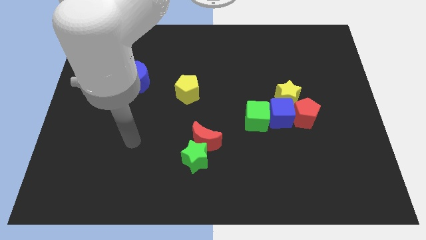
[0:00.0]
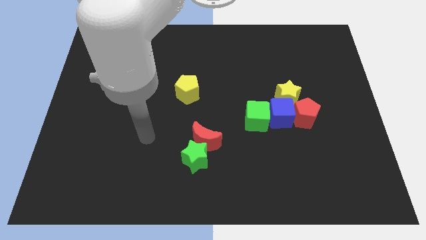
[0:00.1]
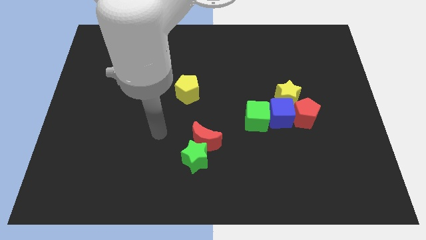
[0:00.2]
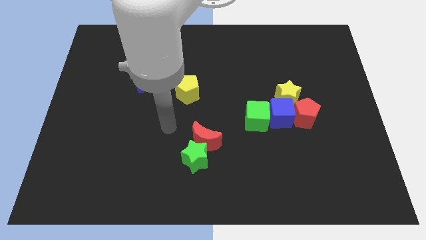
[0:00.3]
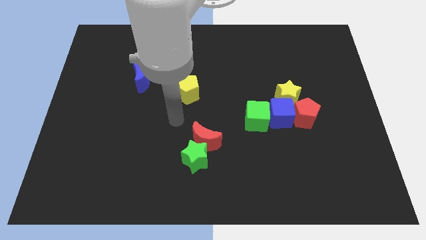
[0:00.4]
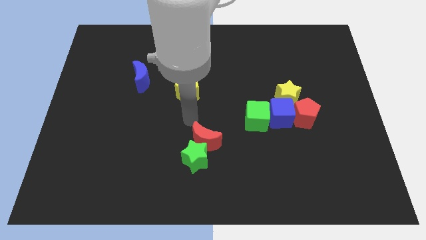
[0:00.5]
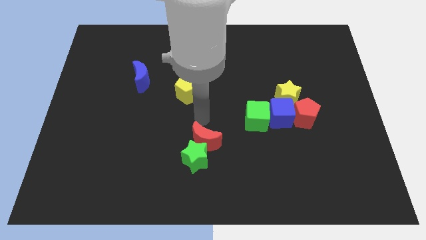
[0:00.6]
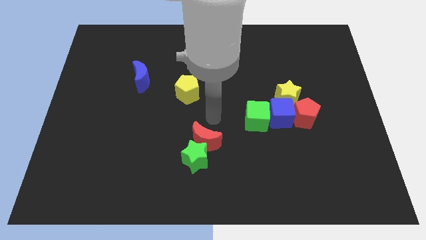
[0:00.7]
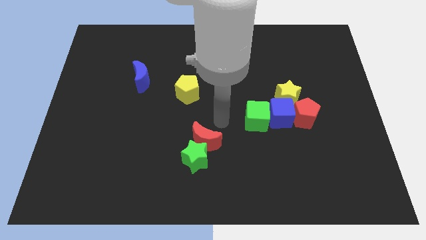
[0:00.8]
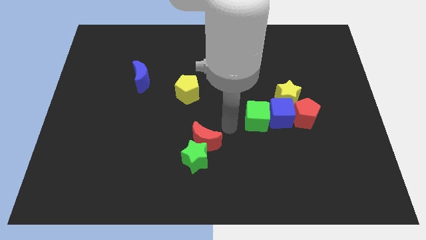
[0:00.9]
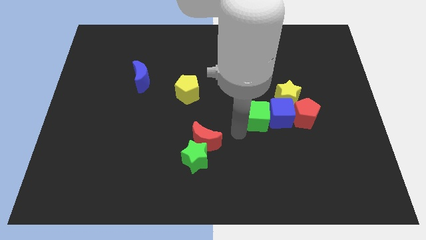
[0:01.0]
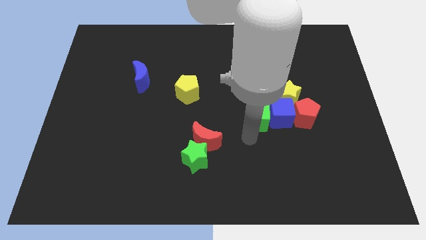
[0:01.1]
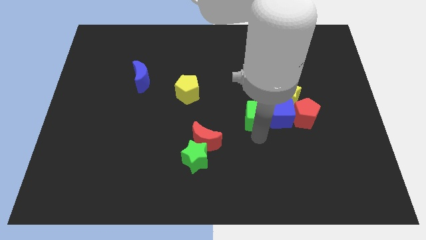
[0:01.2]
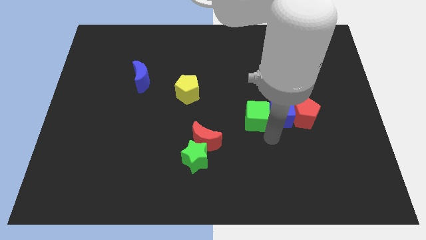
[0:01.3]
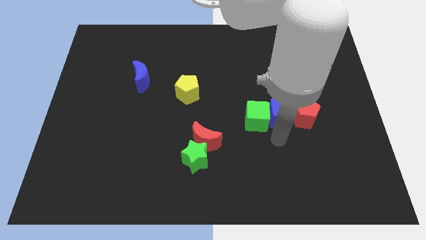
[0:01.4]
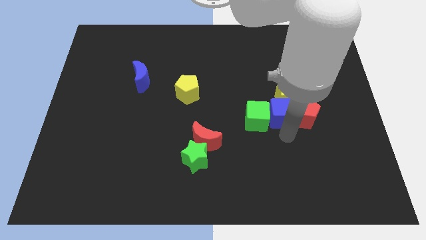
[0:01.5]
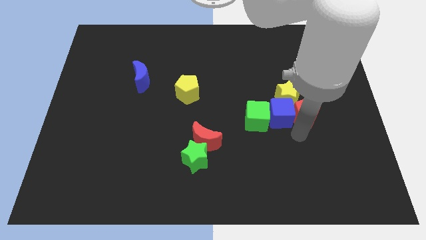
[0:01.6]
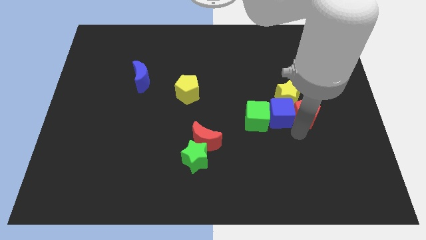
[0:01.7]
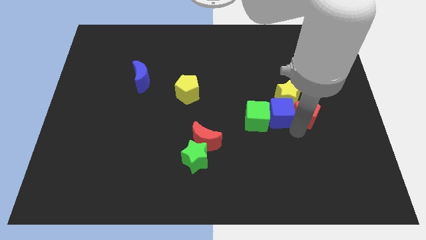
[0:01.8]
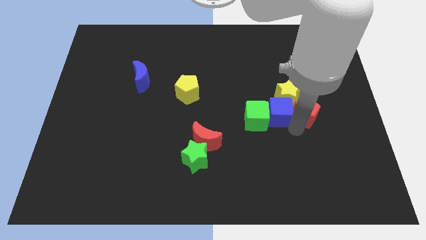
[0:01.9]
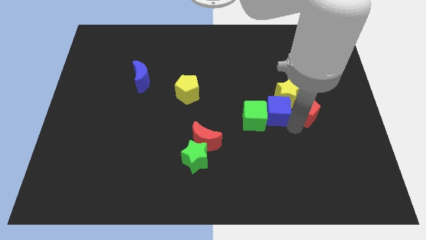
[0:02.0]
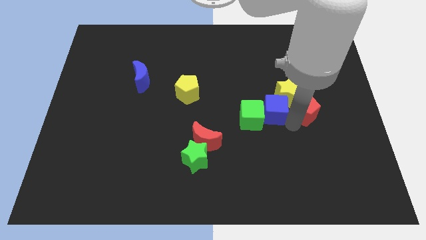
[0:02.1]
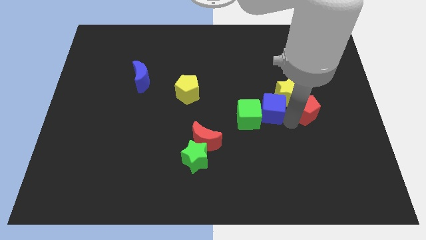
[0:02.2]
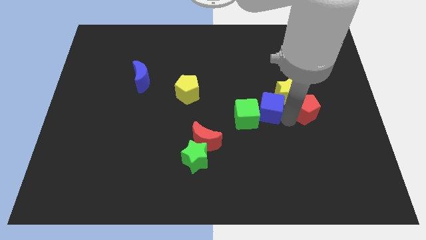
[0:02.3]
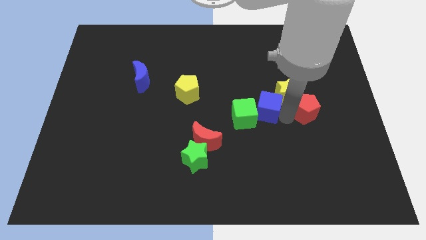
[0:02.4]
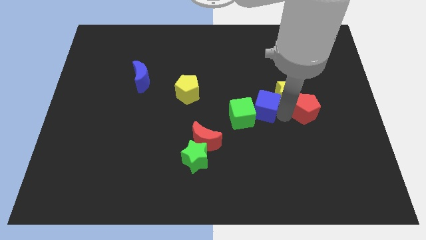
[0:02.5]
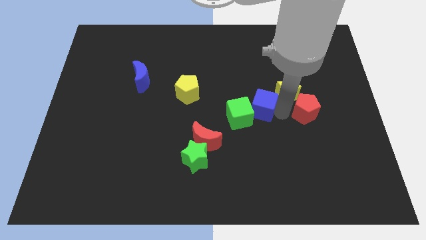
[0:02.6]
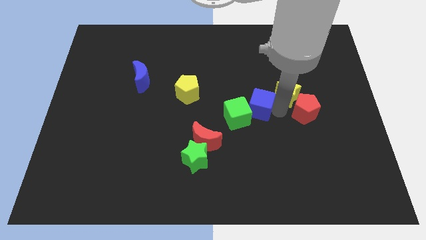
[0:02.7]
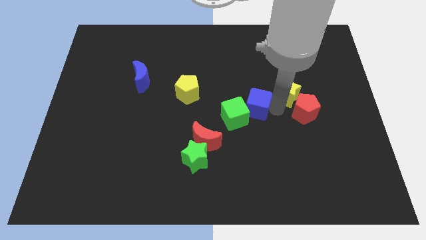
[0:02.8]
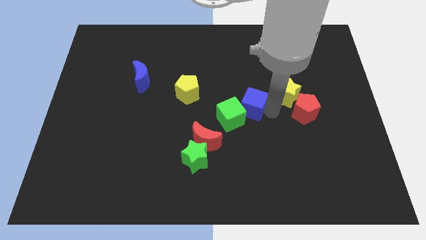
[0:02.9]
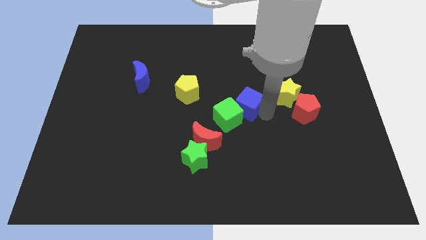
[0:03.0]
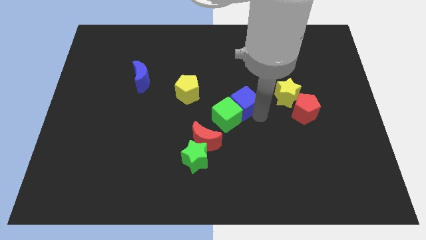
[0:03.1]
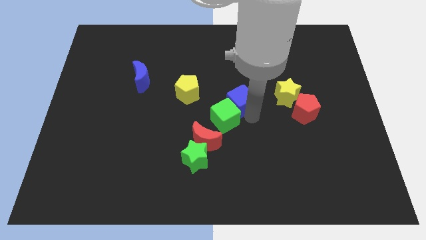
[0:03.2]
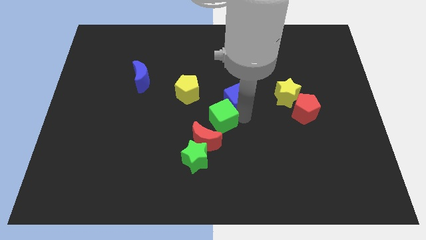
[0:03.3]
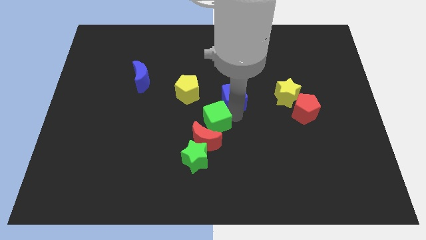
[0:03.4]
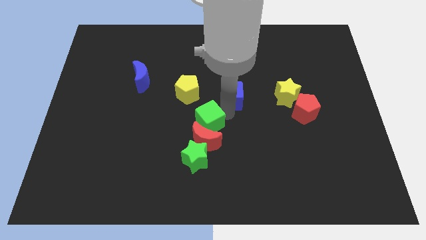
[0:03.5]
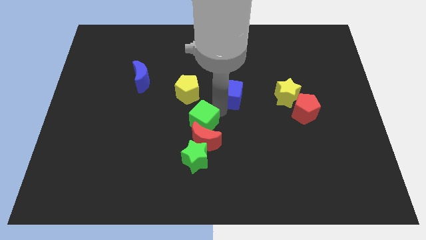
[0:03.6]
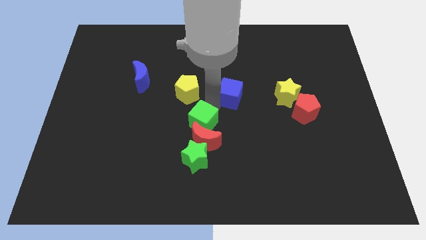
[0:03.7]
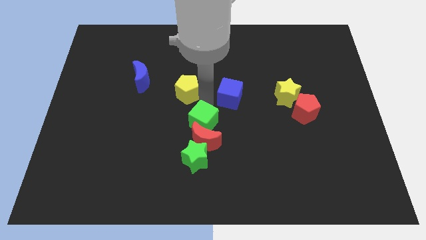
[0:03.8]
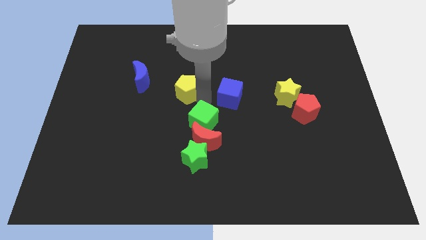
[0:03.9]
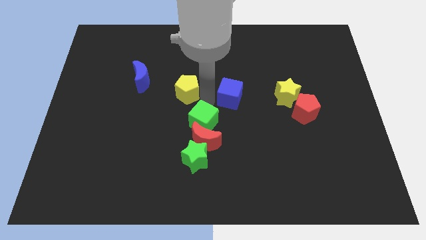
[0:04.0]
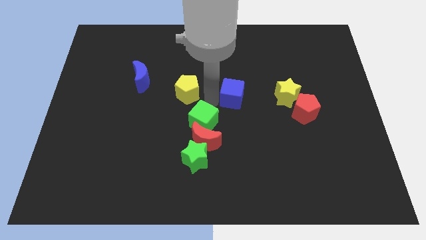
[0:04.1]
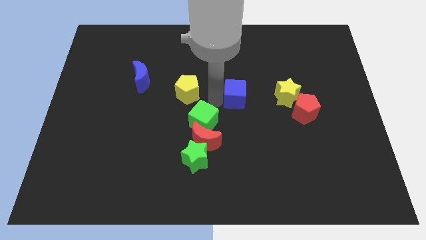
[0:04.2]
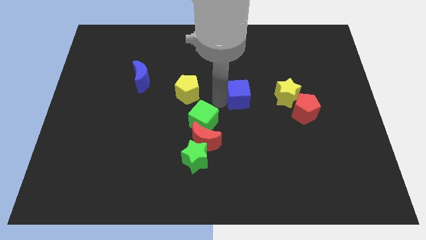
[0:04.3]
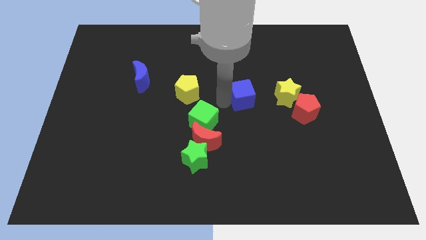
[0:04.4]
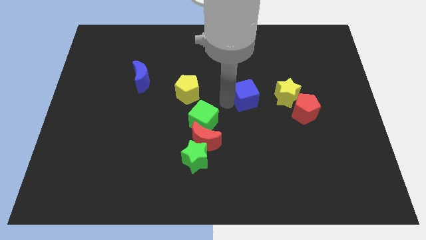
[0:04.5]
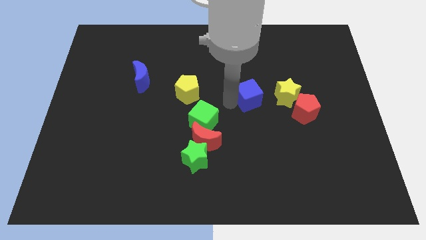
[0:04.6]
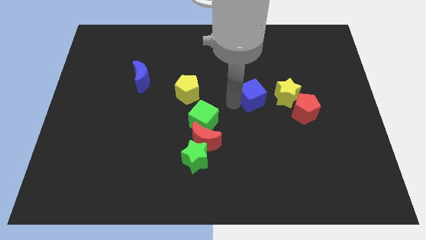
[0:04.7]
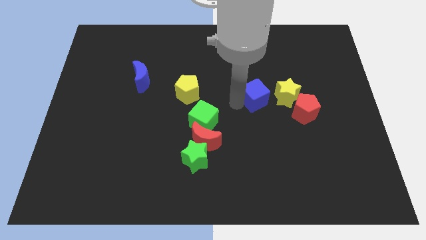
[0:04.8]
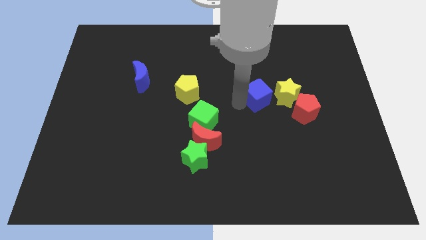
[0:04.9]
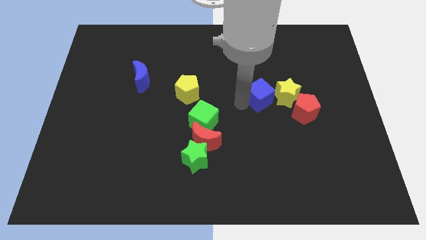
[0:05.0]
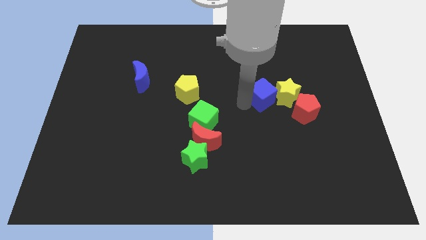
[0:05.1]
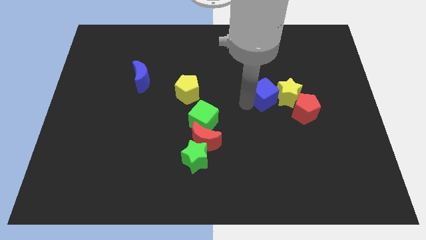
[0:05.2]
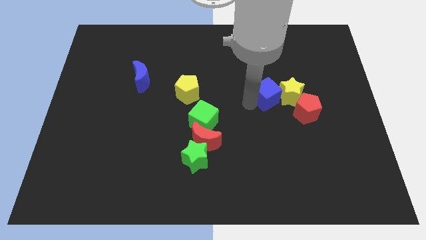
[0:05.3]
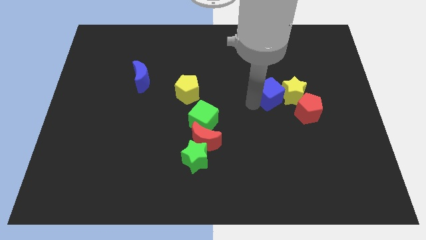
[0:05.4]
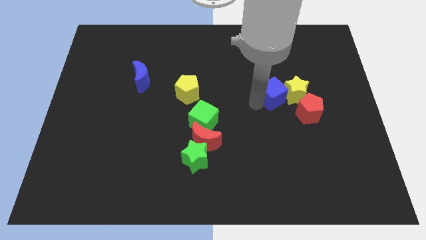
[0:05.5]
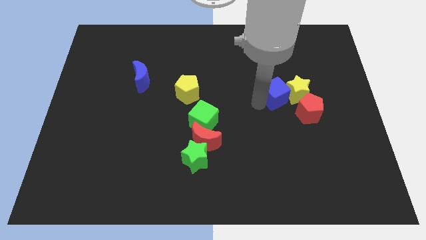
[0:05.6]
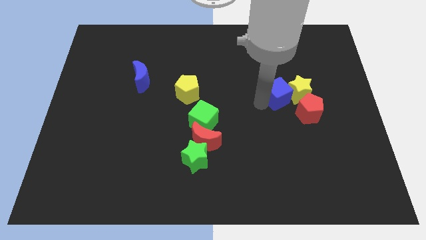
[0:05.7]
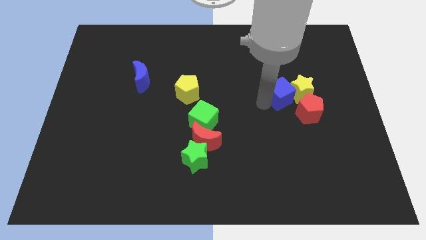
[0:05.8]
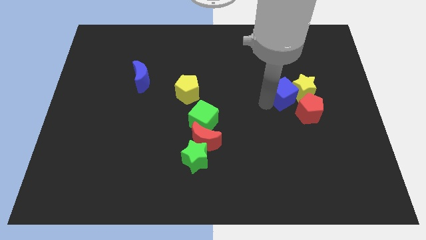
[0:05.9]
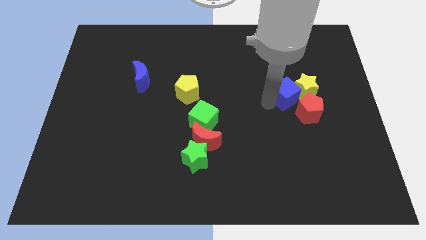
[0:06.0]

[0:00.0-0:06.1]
slide the blue cube to the top of the red pentagon

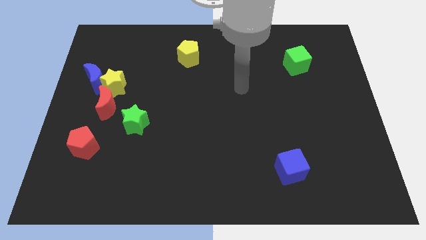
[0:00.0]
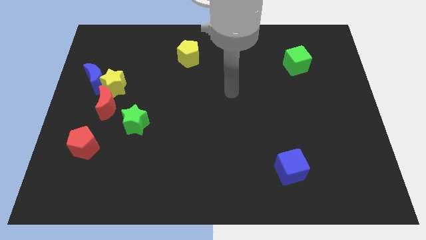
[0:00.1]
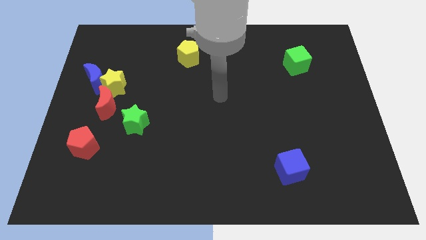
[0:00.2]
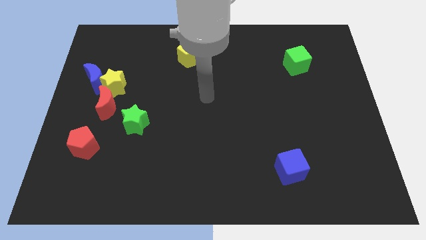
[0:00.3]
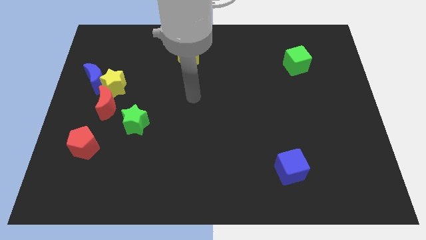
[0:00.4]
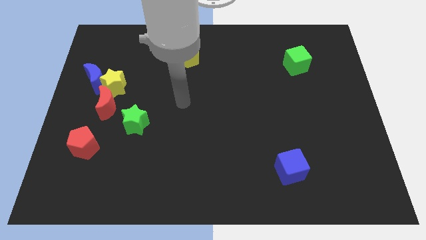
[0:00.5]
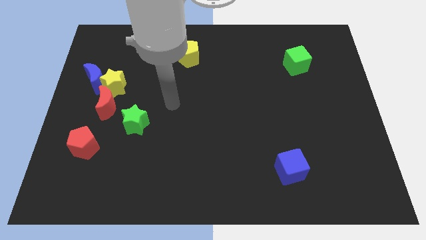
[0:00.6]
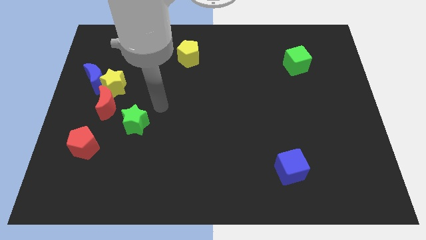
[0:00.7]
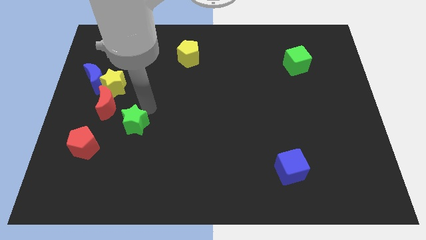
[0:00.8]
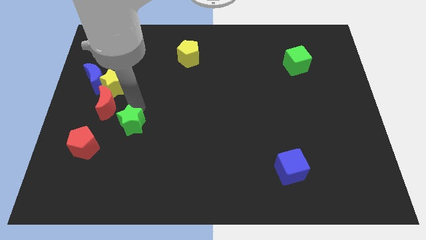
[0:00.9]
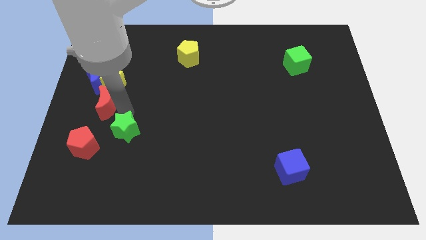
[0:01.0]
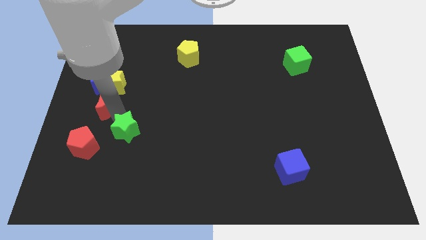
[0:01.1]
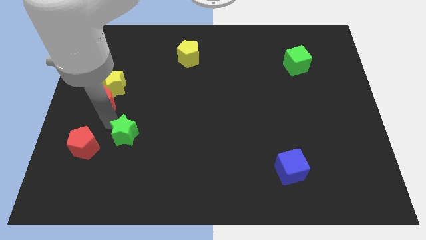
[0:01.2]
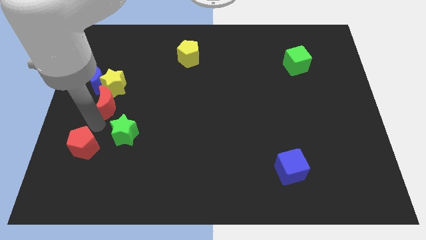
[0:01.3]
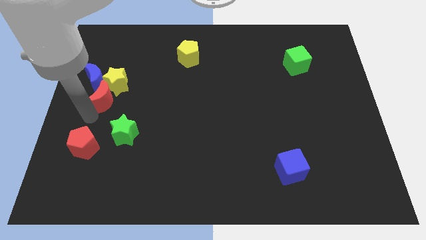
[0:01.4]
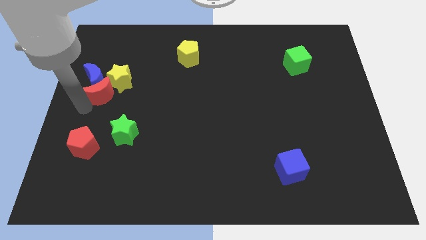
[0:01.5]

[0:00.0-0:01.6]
put the blue moon to the top right of the red moon
